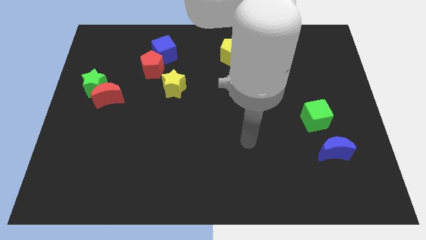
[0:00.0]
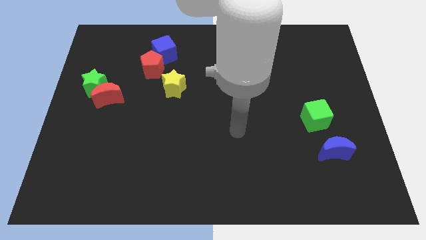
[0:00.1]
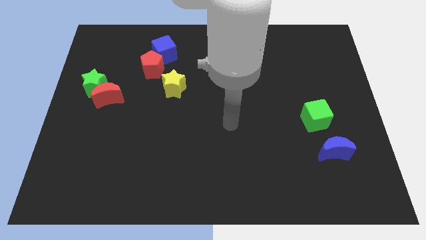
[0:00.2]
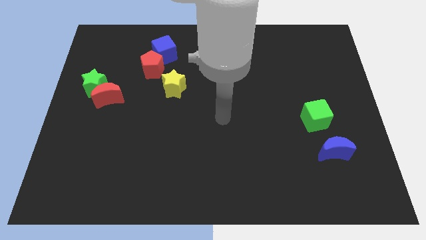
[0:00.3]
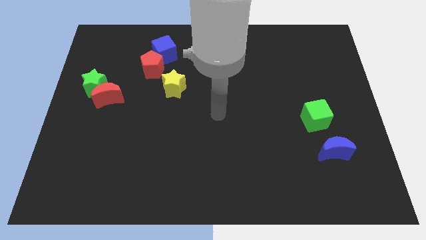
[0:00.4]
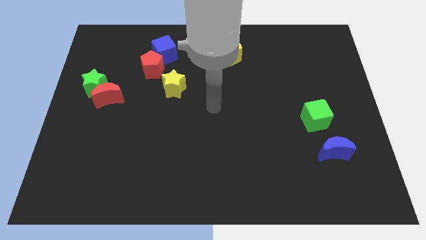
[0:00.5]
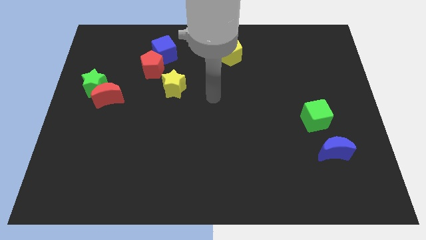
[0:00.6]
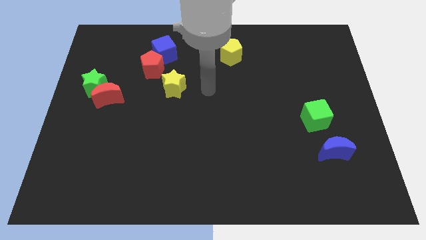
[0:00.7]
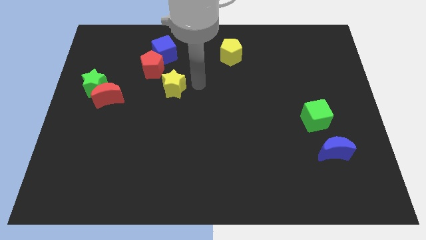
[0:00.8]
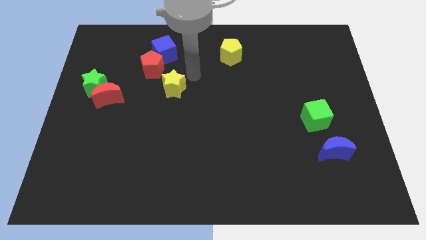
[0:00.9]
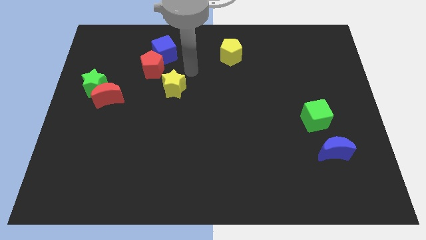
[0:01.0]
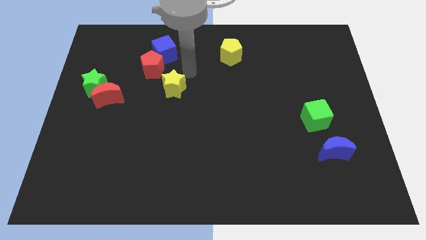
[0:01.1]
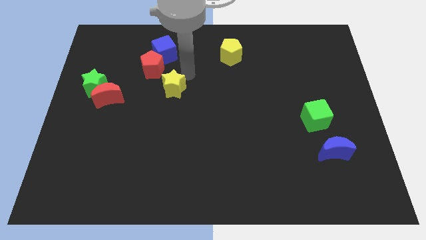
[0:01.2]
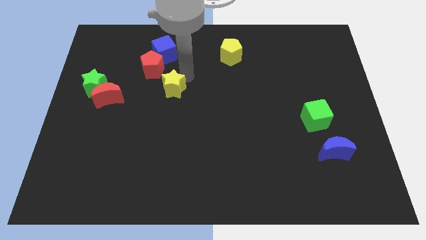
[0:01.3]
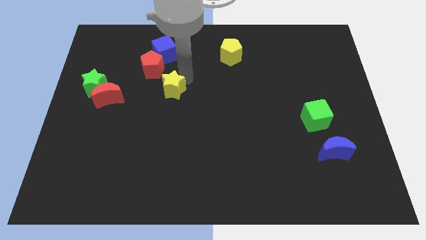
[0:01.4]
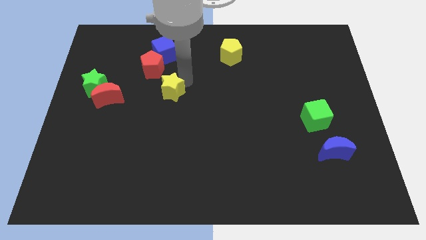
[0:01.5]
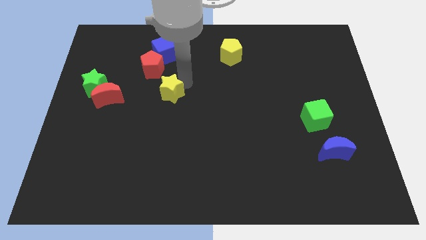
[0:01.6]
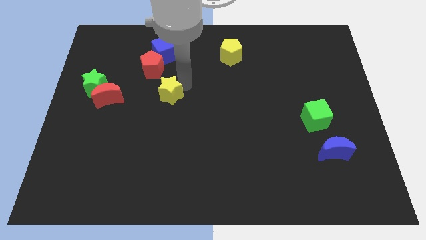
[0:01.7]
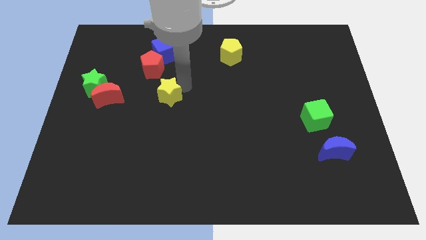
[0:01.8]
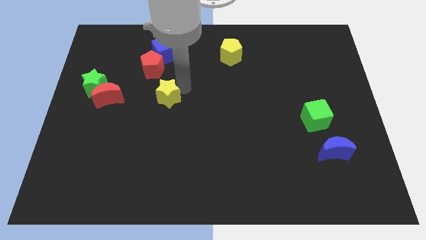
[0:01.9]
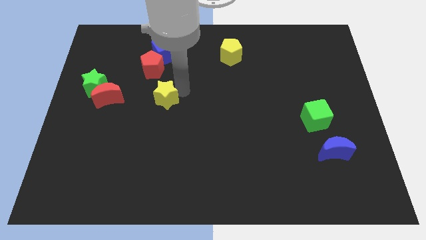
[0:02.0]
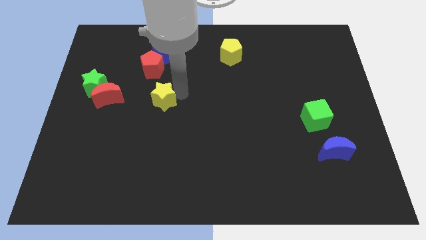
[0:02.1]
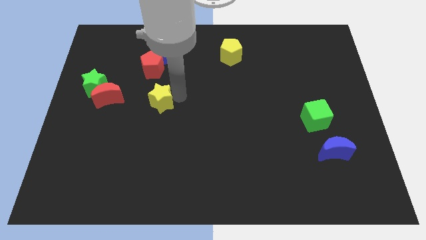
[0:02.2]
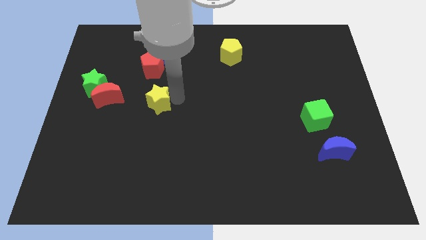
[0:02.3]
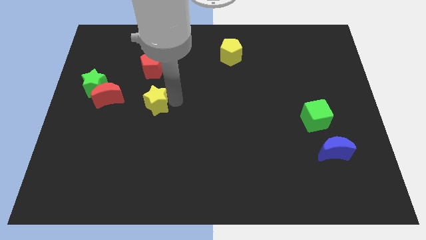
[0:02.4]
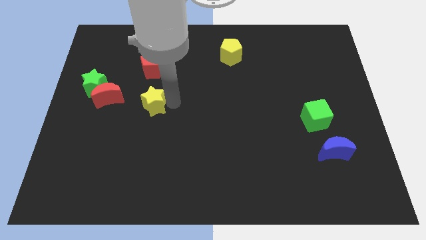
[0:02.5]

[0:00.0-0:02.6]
push the yellow star downwards and left diagonally a little

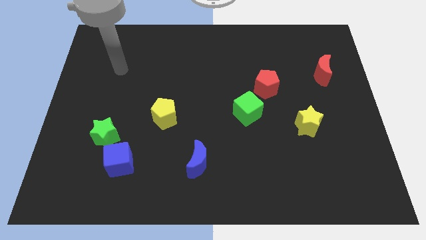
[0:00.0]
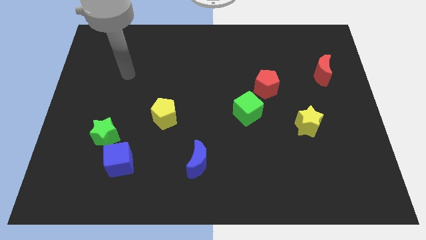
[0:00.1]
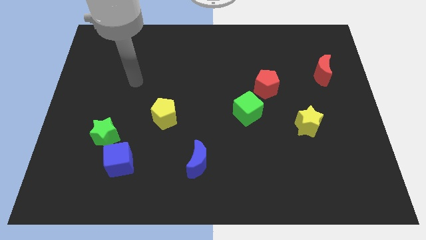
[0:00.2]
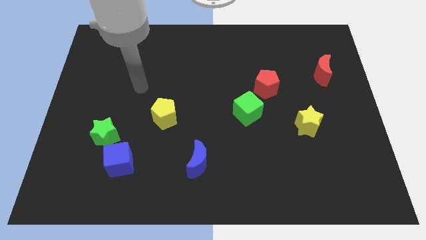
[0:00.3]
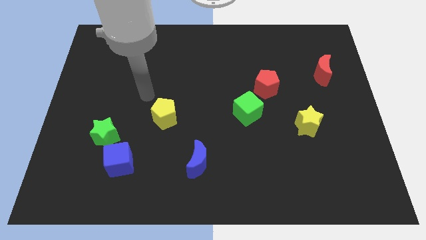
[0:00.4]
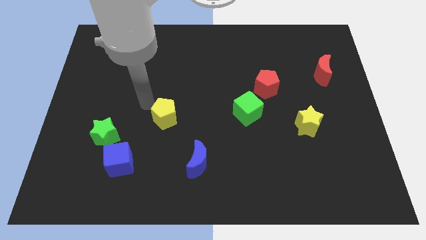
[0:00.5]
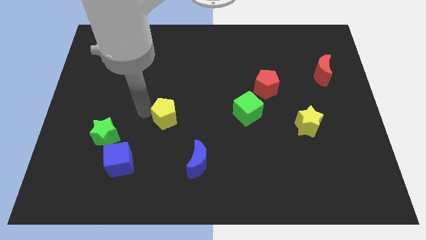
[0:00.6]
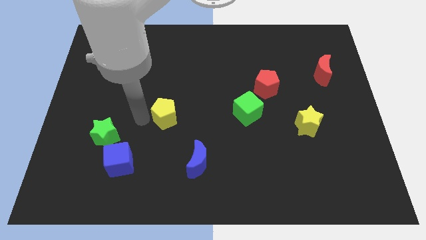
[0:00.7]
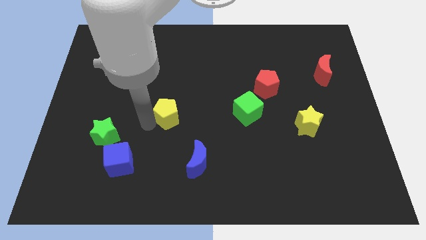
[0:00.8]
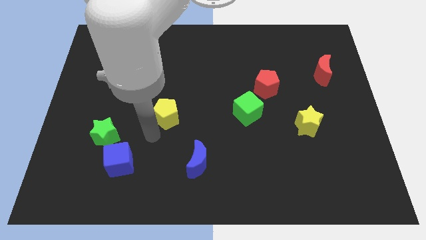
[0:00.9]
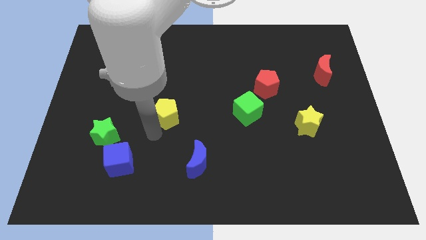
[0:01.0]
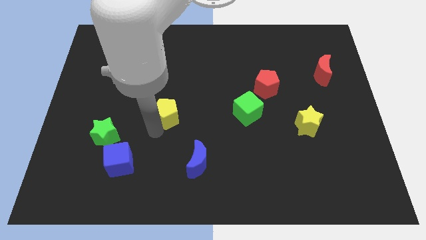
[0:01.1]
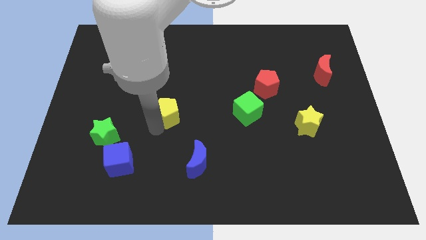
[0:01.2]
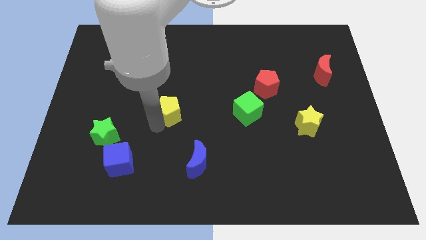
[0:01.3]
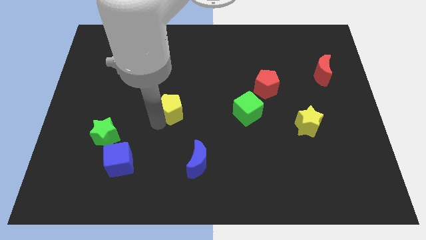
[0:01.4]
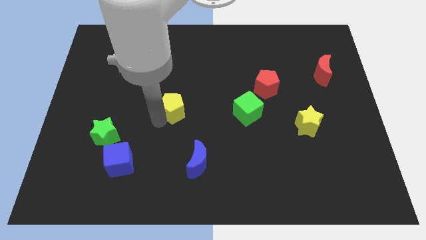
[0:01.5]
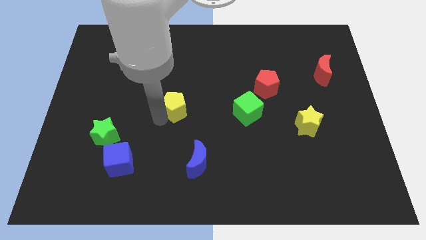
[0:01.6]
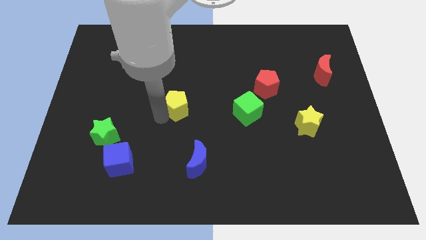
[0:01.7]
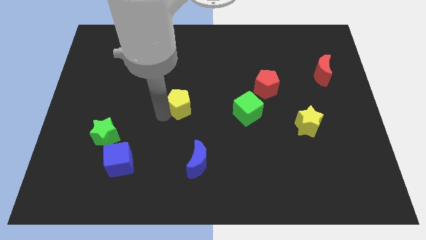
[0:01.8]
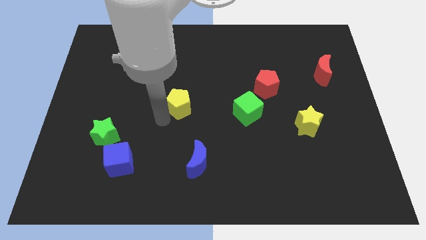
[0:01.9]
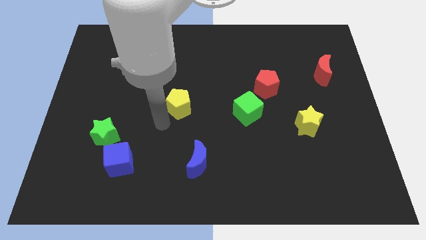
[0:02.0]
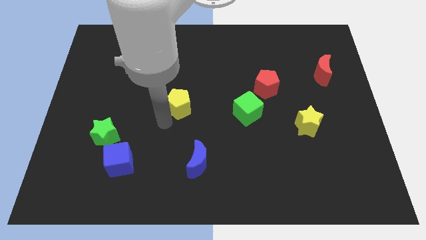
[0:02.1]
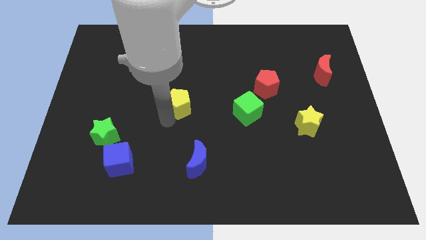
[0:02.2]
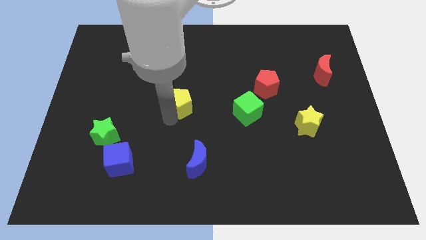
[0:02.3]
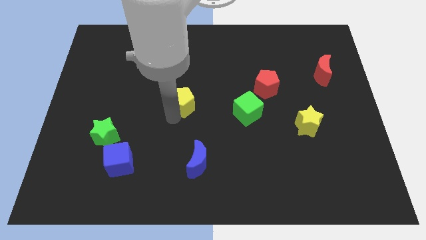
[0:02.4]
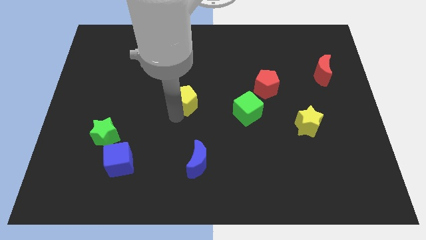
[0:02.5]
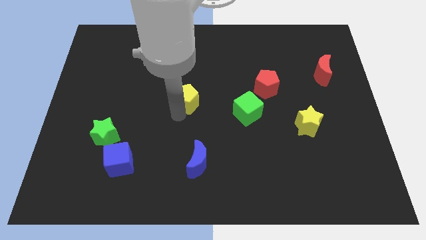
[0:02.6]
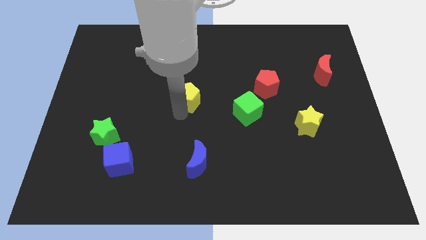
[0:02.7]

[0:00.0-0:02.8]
push the yellow pentagon upwards and right a little

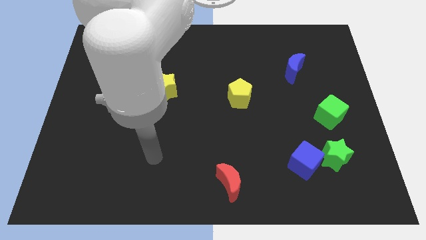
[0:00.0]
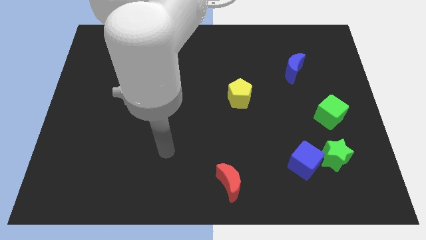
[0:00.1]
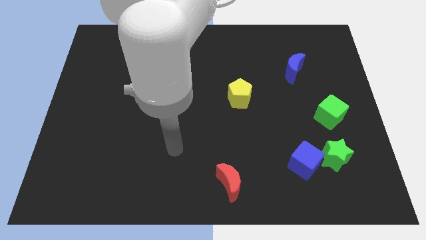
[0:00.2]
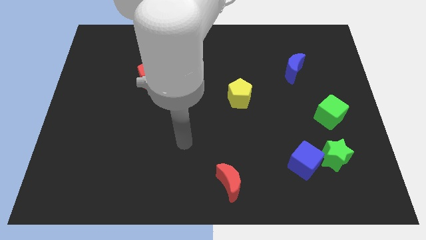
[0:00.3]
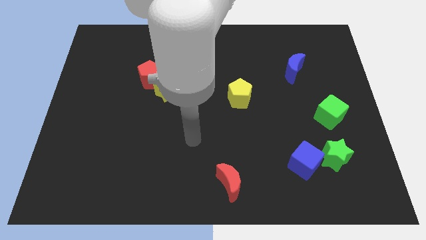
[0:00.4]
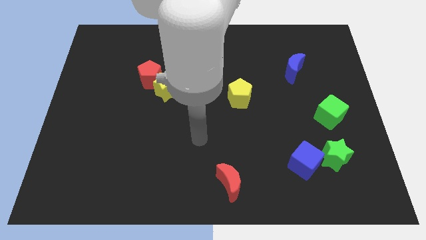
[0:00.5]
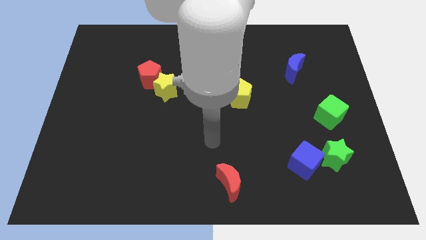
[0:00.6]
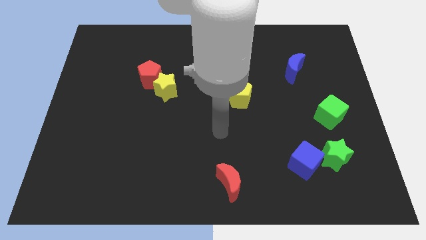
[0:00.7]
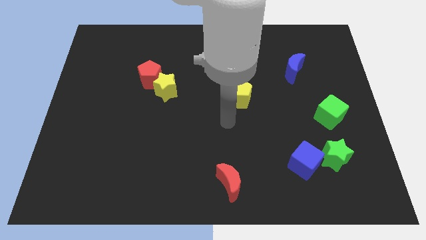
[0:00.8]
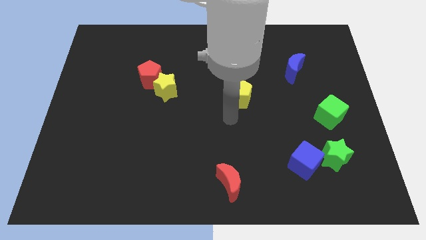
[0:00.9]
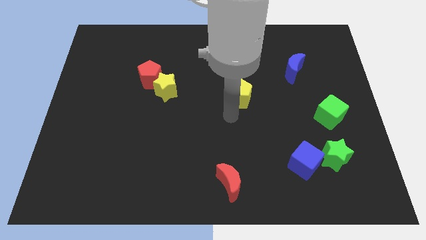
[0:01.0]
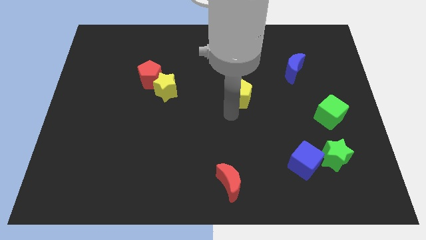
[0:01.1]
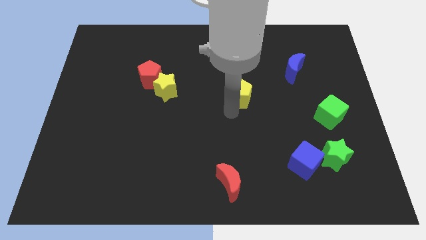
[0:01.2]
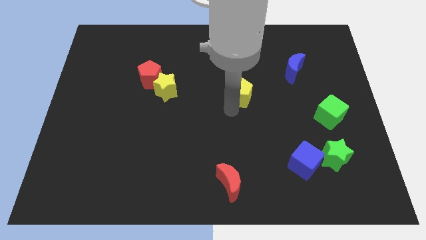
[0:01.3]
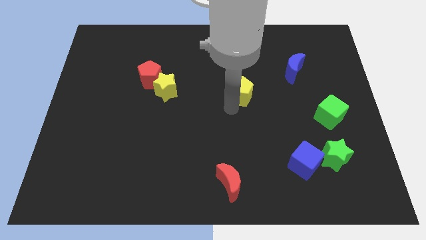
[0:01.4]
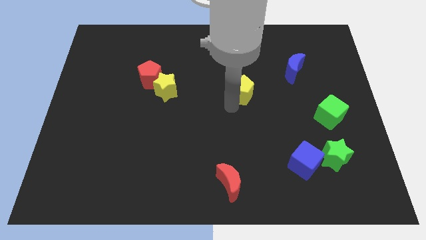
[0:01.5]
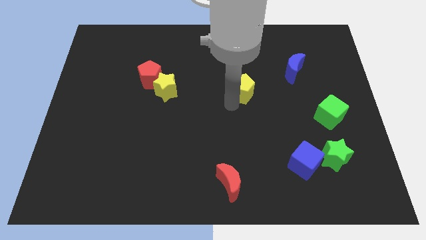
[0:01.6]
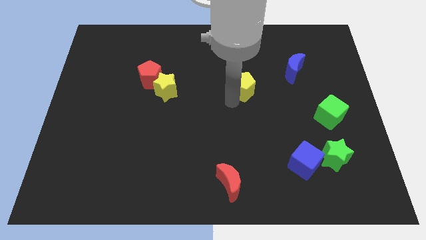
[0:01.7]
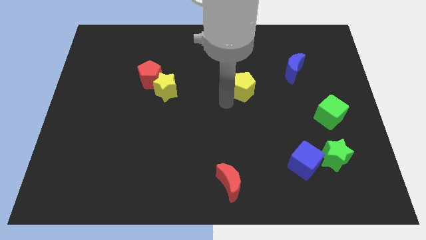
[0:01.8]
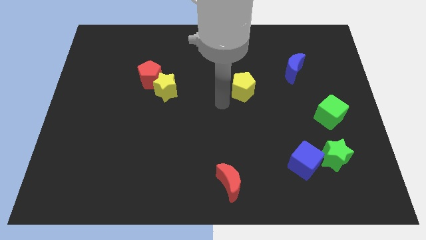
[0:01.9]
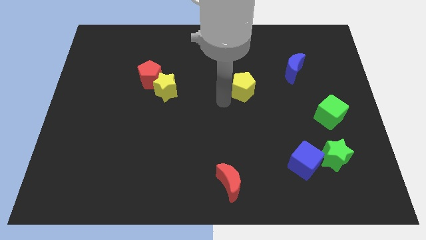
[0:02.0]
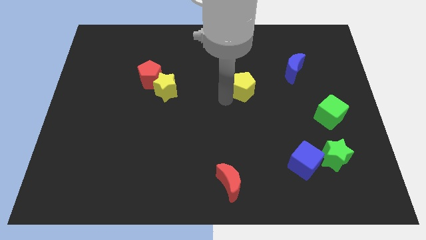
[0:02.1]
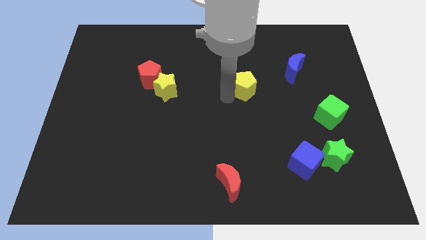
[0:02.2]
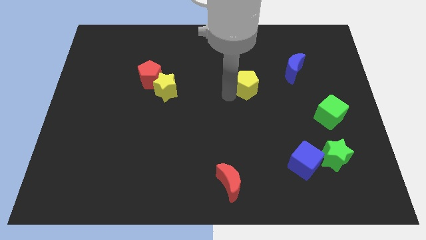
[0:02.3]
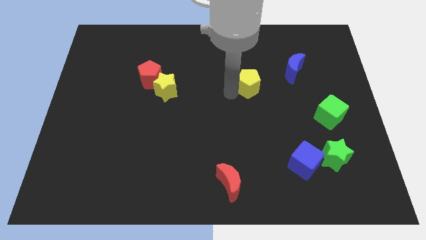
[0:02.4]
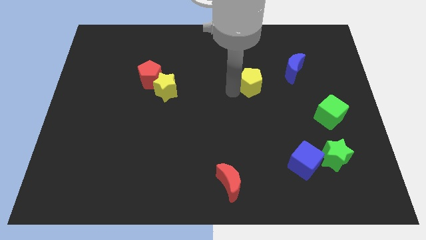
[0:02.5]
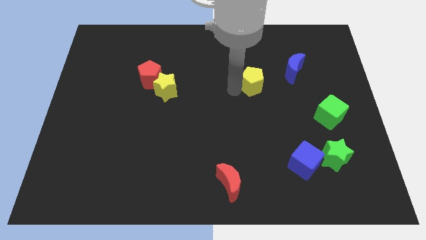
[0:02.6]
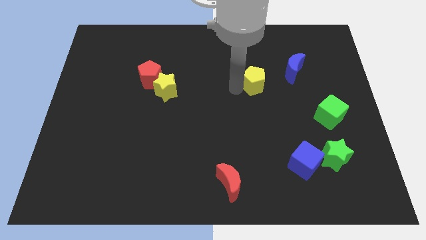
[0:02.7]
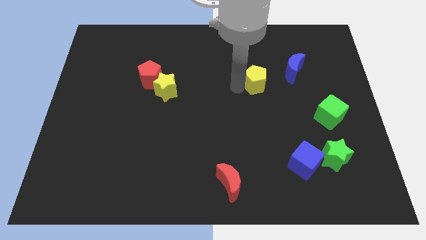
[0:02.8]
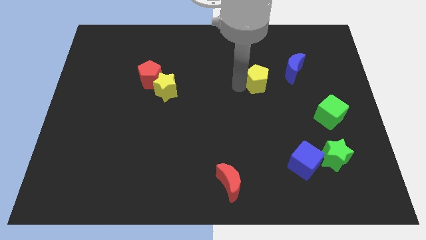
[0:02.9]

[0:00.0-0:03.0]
push the yellow pentagon diagonally up and right a little bit

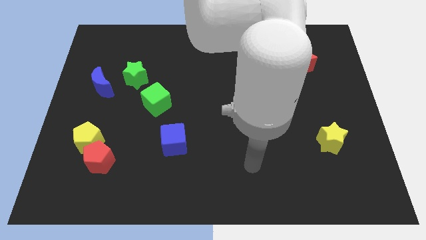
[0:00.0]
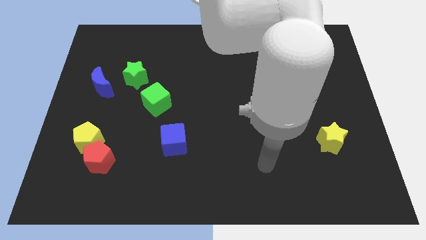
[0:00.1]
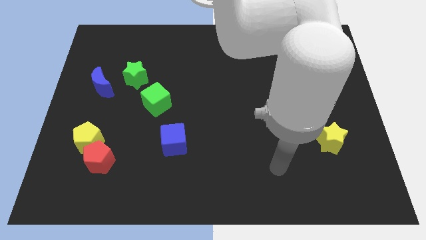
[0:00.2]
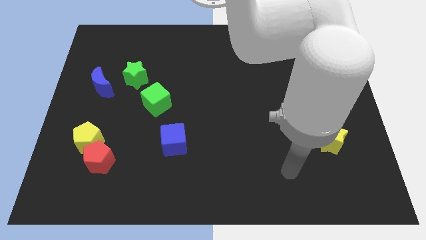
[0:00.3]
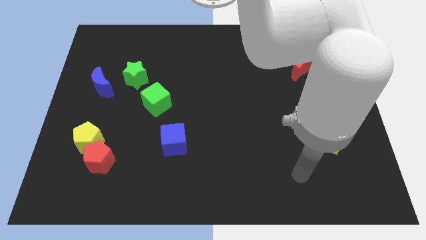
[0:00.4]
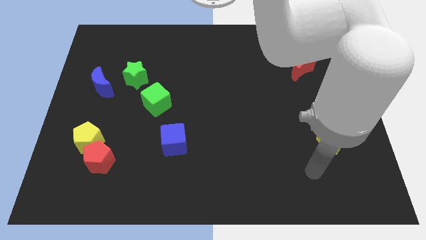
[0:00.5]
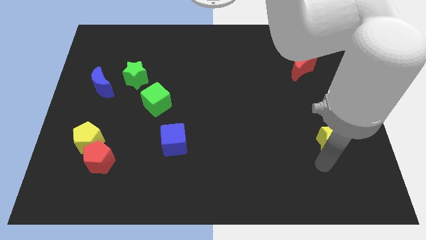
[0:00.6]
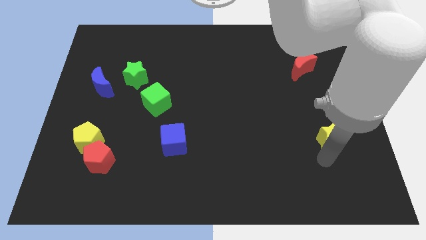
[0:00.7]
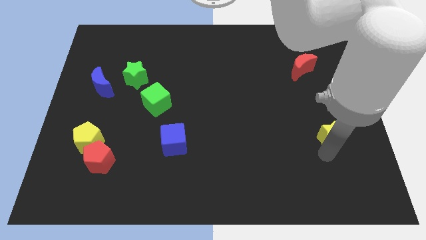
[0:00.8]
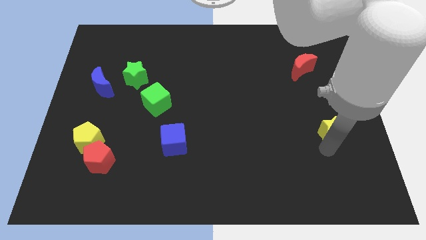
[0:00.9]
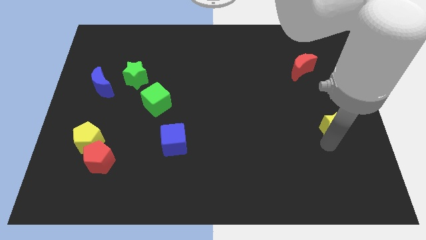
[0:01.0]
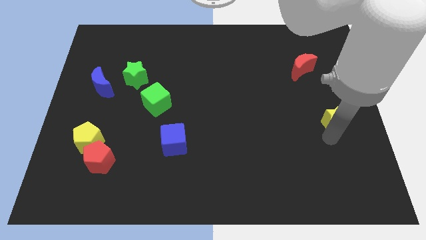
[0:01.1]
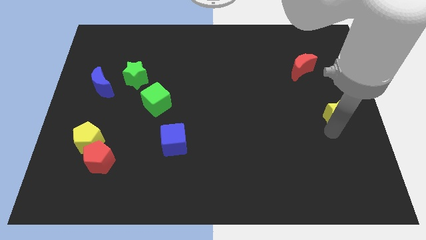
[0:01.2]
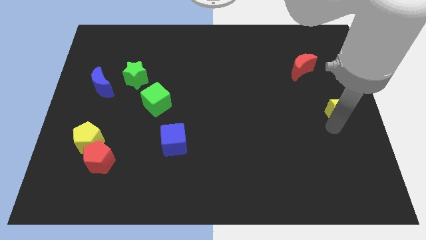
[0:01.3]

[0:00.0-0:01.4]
move the yellow star upwards slightly
